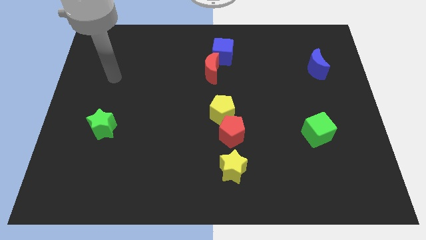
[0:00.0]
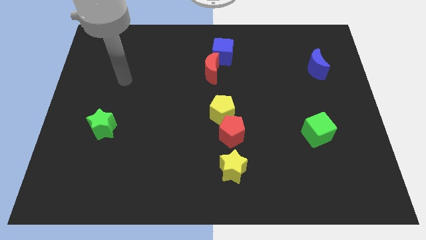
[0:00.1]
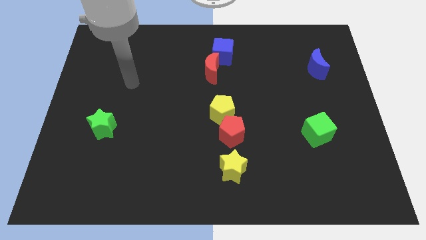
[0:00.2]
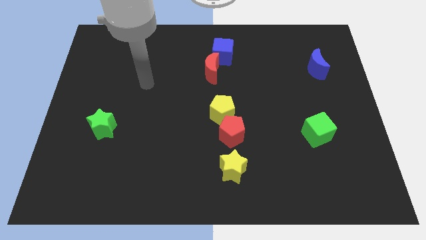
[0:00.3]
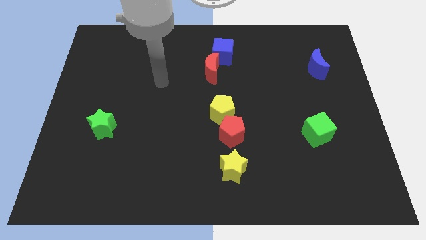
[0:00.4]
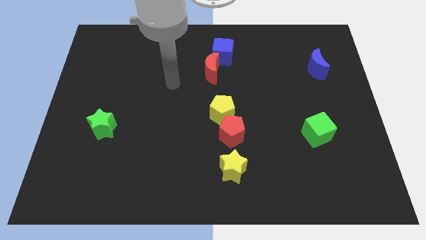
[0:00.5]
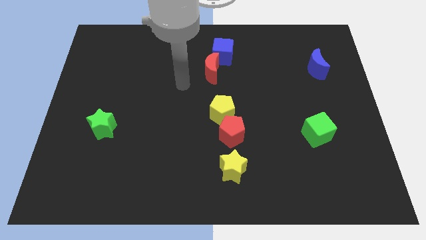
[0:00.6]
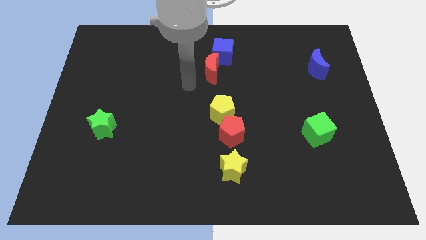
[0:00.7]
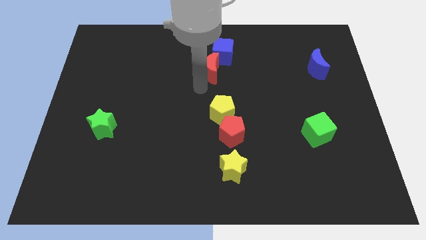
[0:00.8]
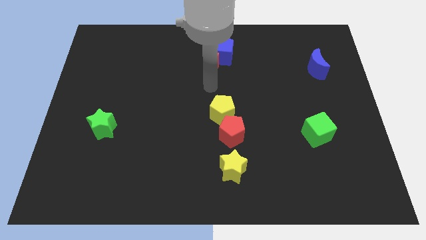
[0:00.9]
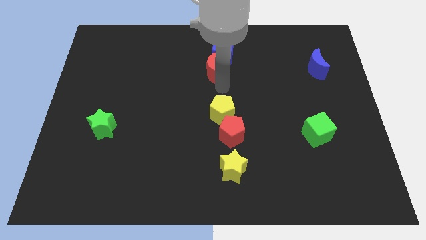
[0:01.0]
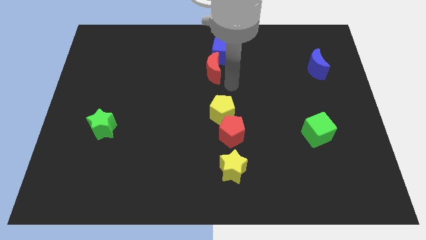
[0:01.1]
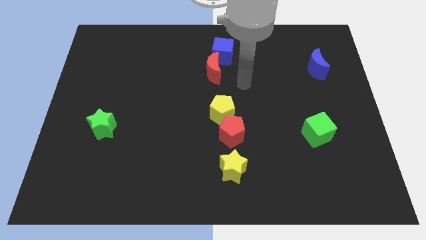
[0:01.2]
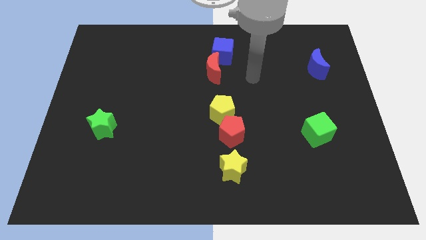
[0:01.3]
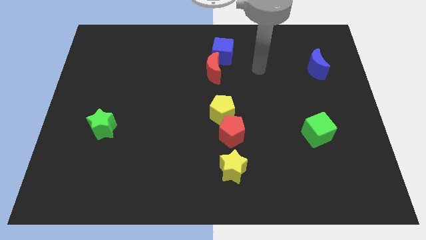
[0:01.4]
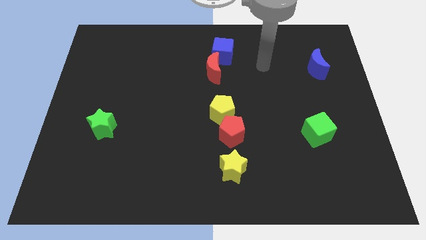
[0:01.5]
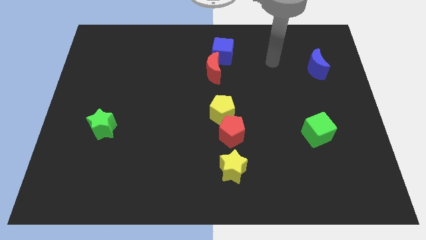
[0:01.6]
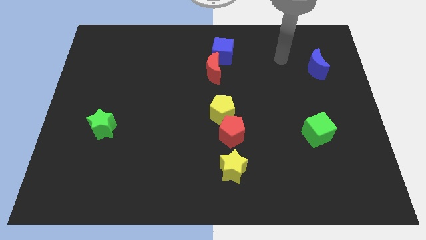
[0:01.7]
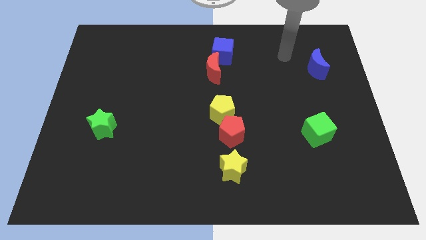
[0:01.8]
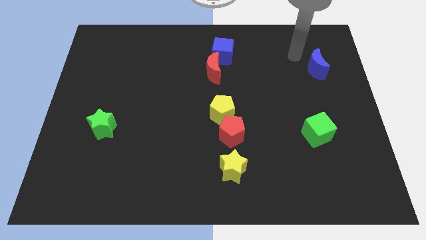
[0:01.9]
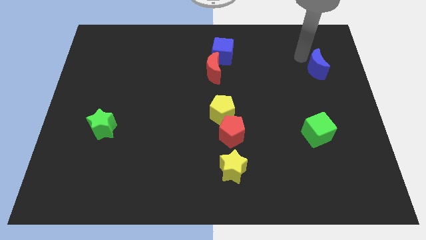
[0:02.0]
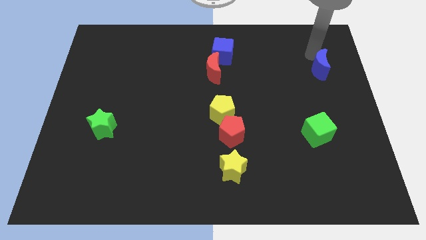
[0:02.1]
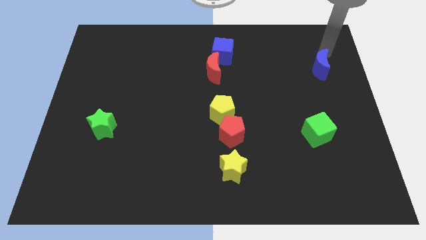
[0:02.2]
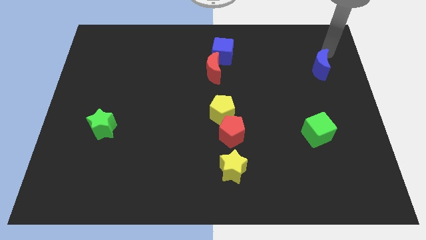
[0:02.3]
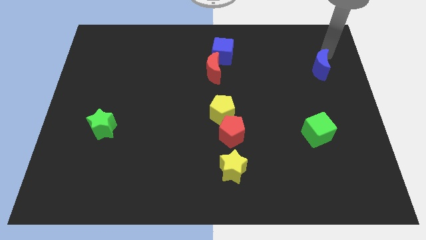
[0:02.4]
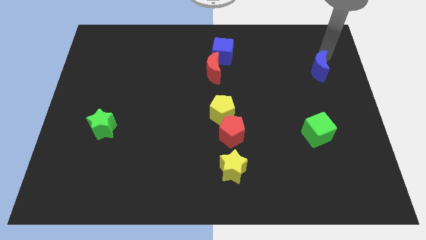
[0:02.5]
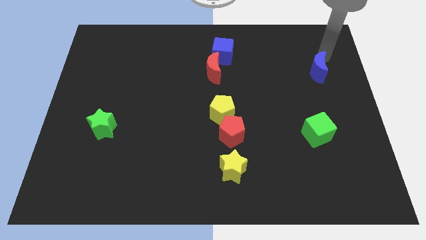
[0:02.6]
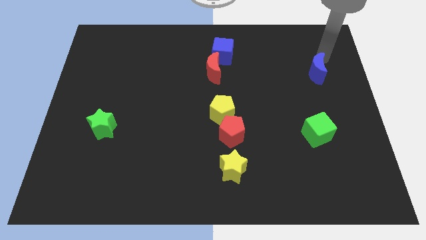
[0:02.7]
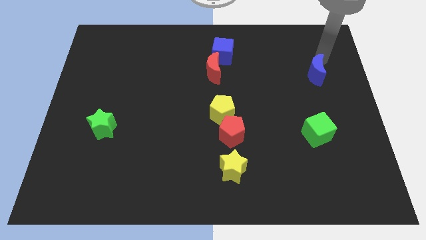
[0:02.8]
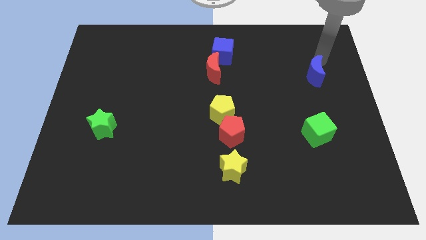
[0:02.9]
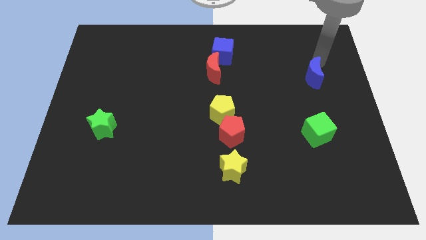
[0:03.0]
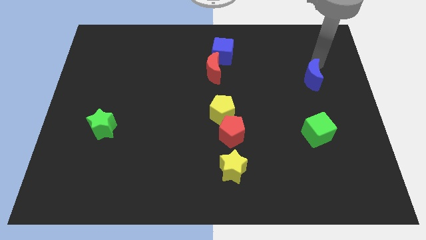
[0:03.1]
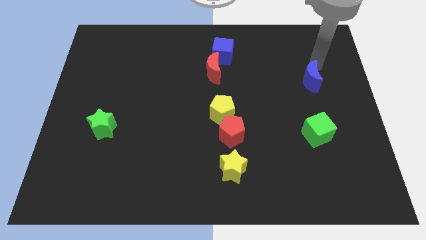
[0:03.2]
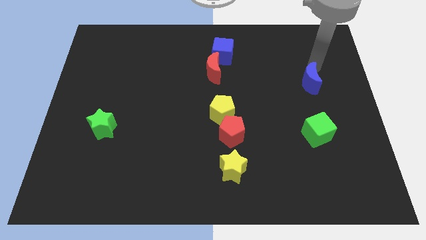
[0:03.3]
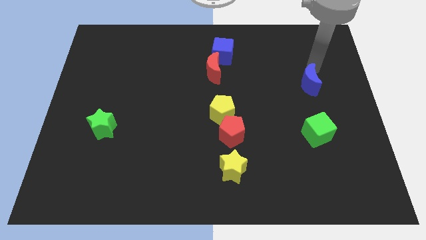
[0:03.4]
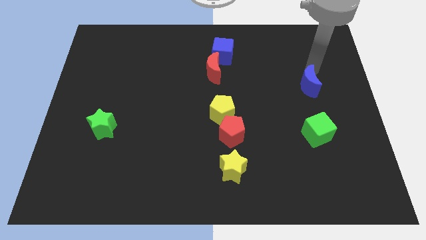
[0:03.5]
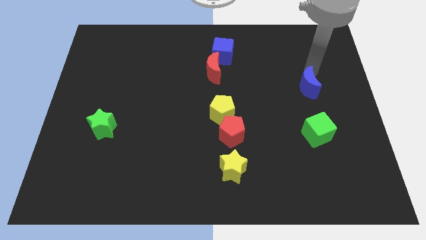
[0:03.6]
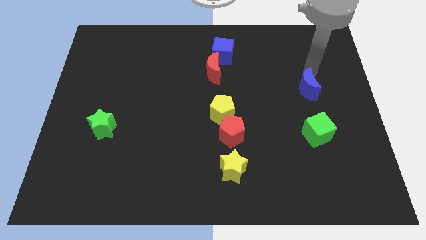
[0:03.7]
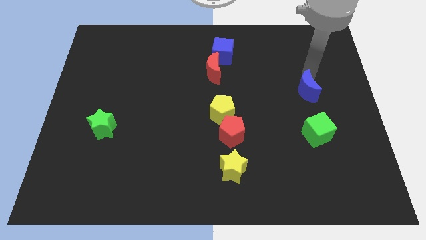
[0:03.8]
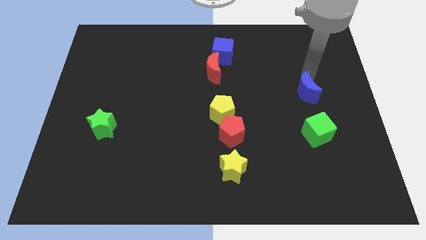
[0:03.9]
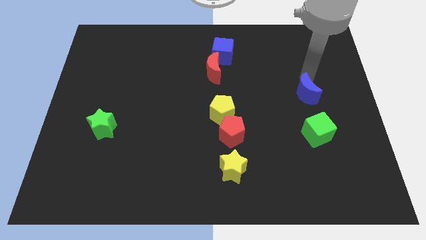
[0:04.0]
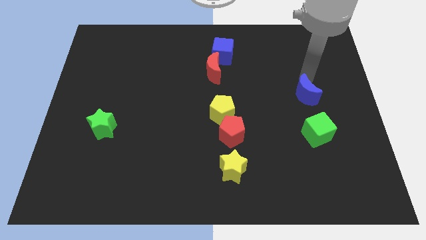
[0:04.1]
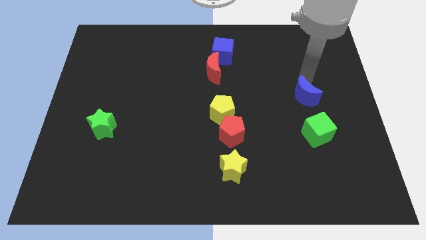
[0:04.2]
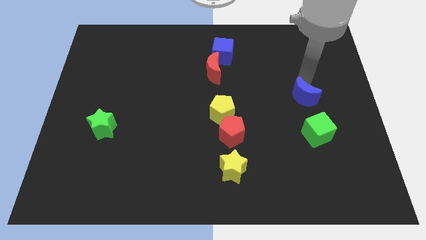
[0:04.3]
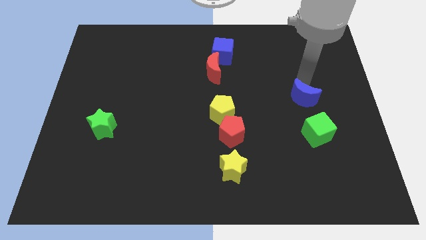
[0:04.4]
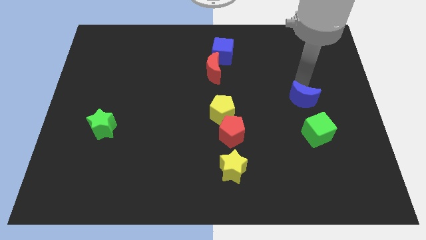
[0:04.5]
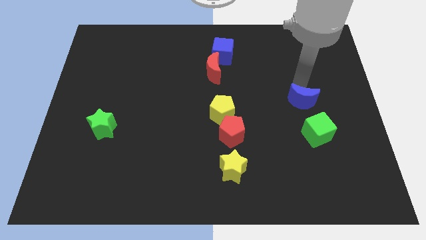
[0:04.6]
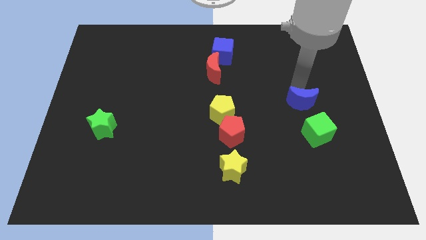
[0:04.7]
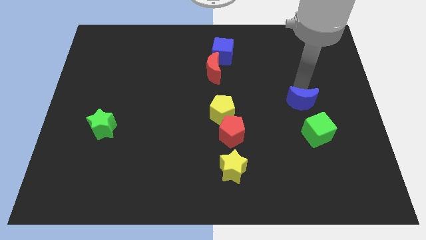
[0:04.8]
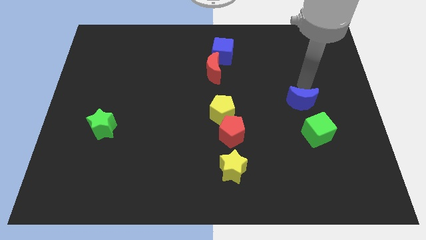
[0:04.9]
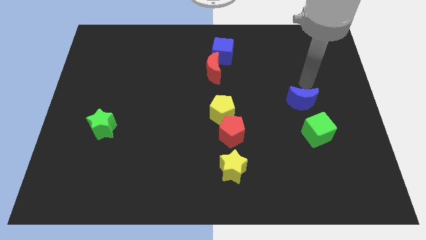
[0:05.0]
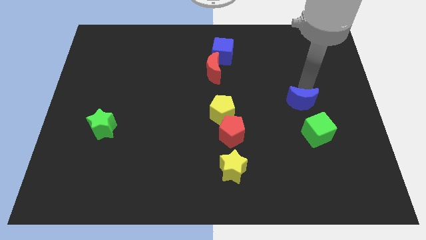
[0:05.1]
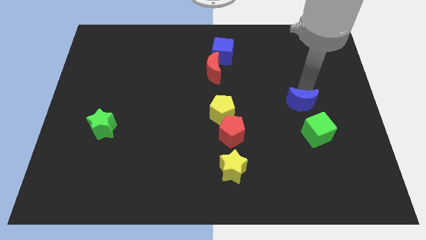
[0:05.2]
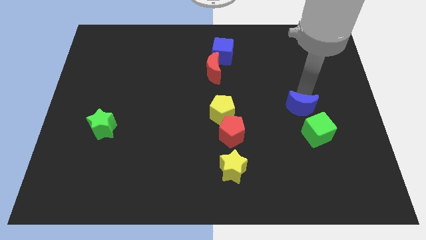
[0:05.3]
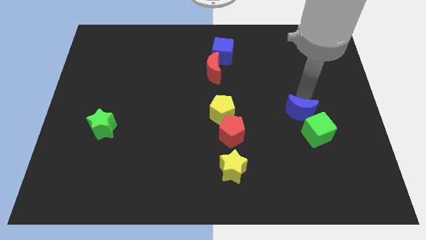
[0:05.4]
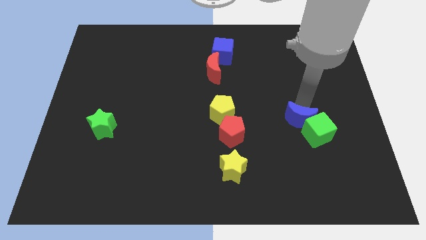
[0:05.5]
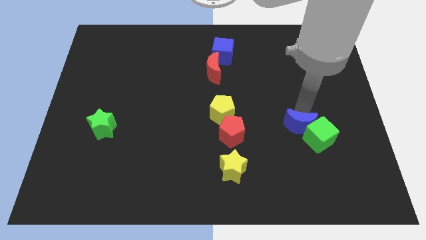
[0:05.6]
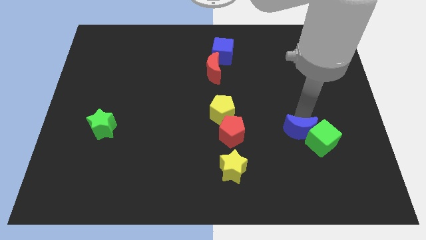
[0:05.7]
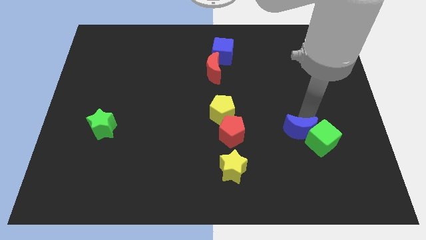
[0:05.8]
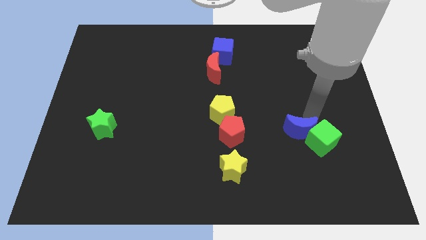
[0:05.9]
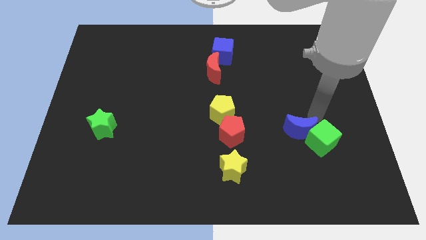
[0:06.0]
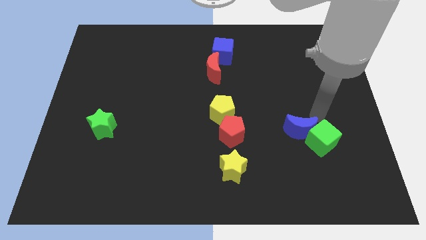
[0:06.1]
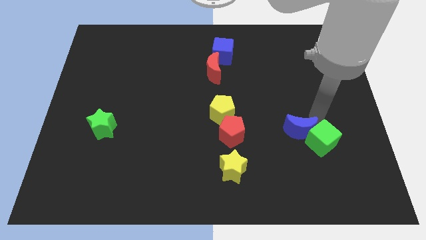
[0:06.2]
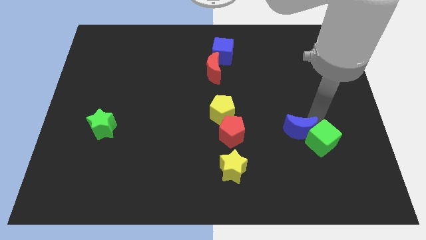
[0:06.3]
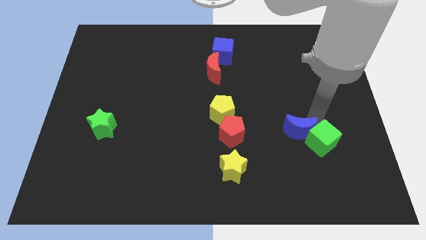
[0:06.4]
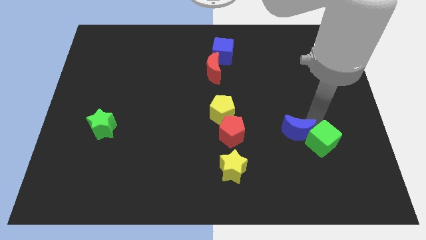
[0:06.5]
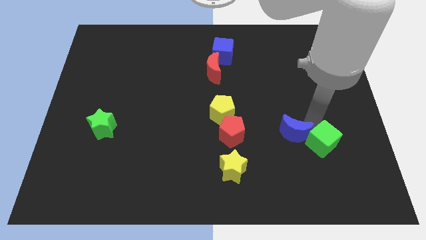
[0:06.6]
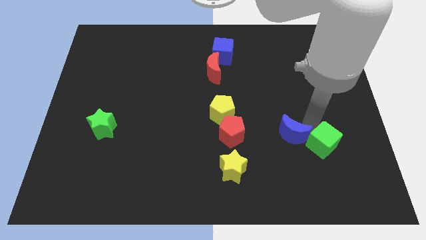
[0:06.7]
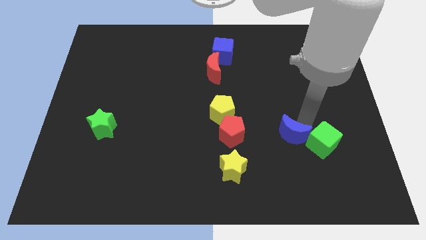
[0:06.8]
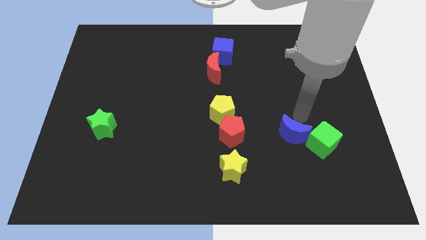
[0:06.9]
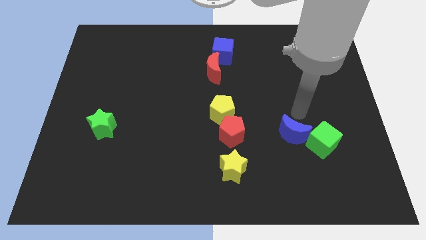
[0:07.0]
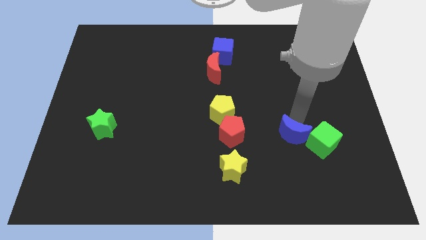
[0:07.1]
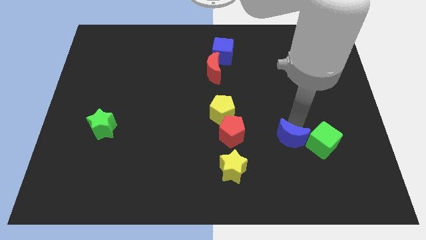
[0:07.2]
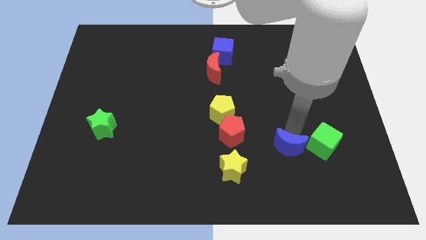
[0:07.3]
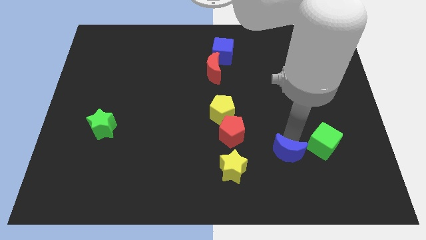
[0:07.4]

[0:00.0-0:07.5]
move the blue moon to the right of the yellow star
